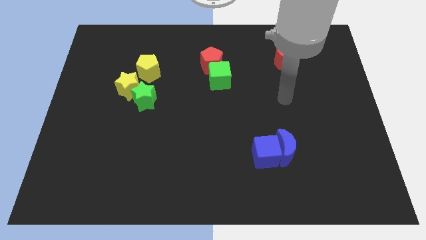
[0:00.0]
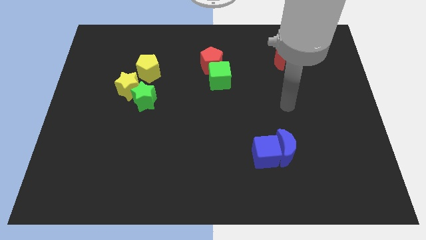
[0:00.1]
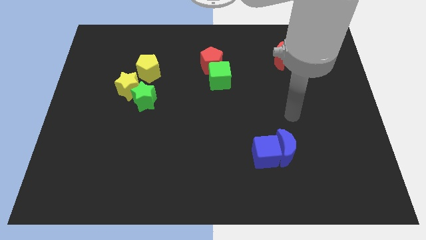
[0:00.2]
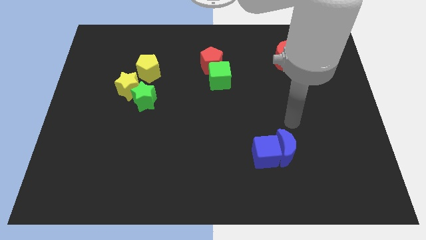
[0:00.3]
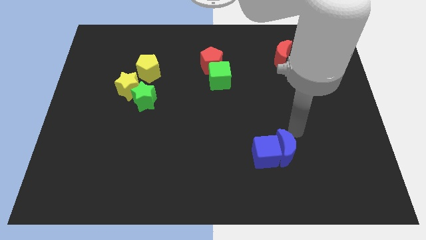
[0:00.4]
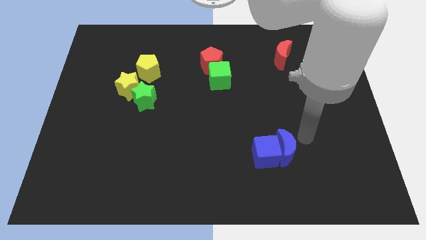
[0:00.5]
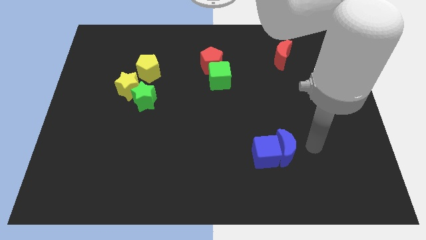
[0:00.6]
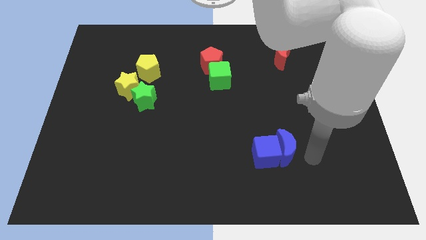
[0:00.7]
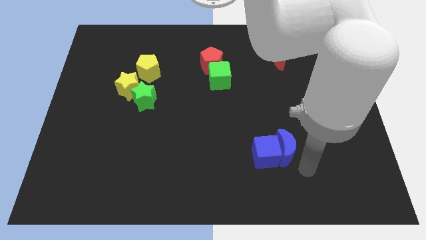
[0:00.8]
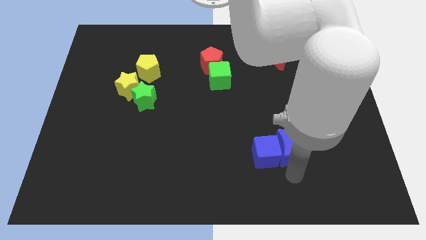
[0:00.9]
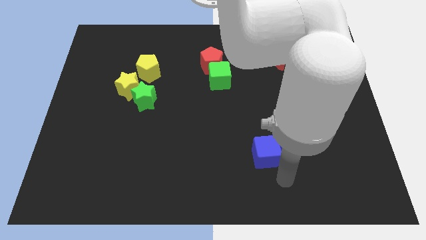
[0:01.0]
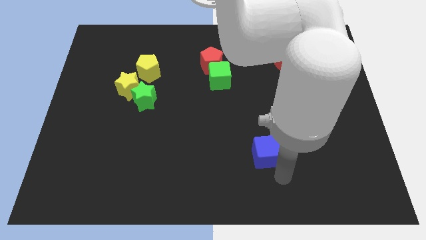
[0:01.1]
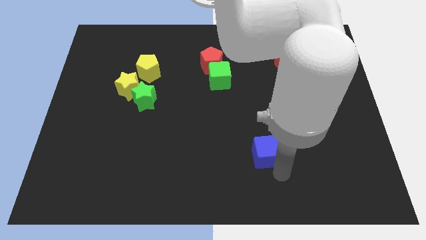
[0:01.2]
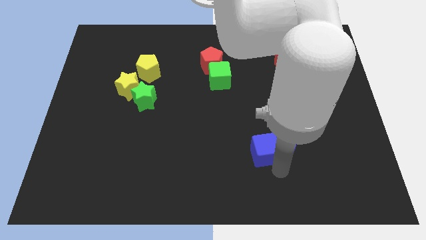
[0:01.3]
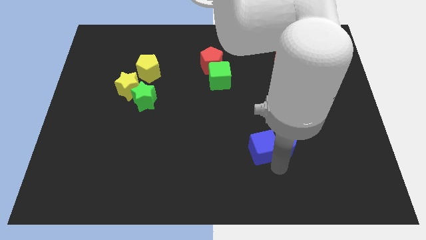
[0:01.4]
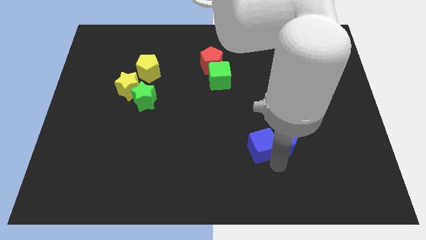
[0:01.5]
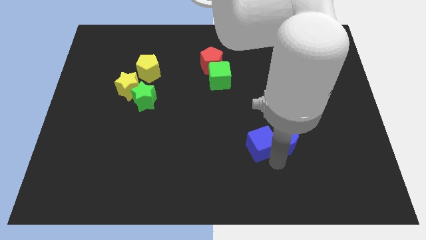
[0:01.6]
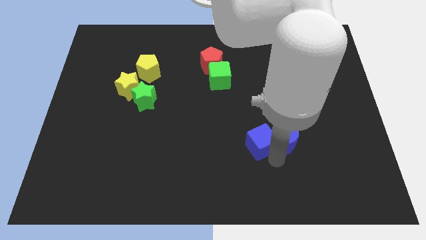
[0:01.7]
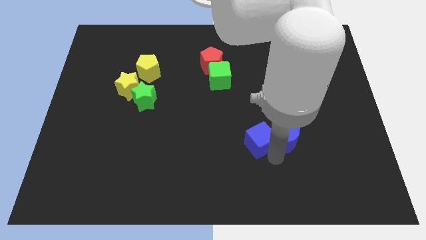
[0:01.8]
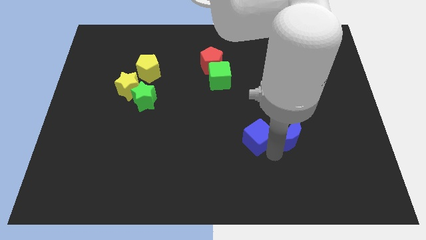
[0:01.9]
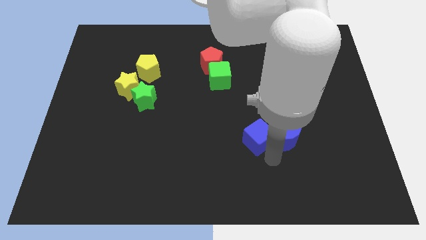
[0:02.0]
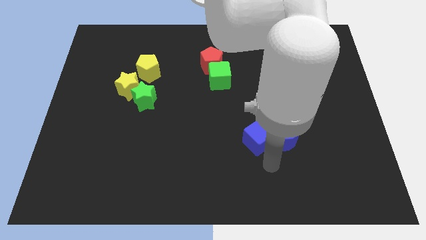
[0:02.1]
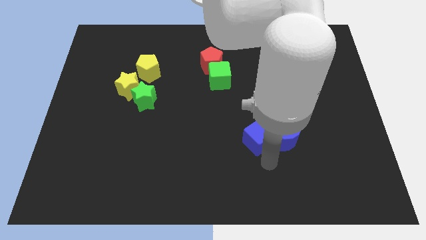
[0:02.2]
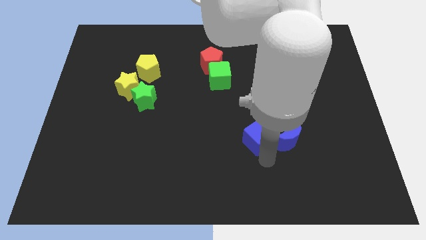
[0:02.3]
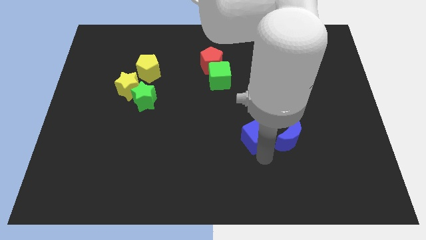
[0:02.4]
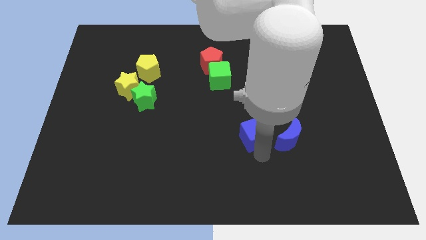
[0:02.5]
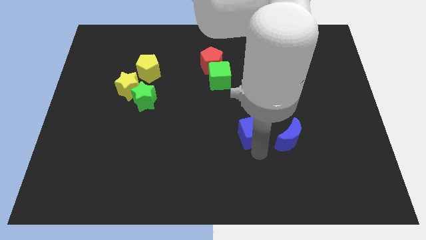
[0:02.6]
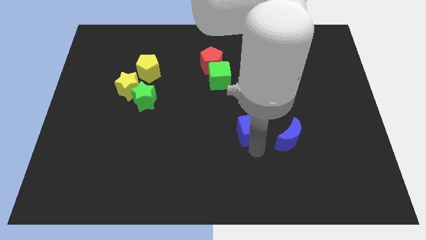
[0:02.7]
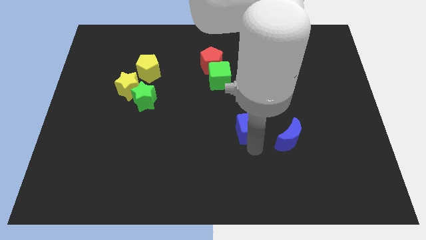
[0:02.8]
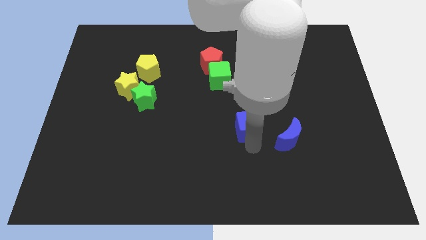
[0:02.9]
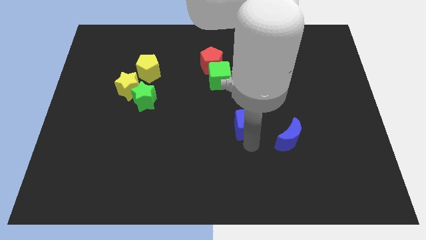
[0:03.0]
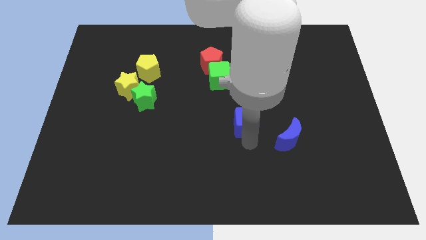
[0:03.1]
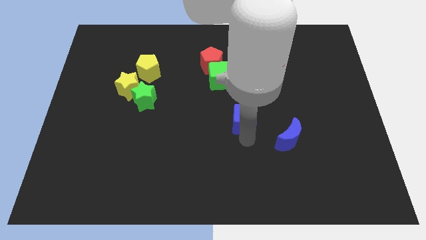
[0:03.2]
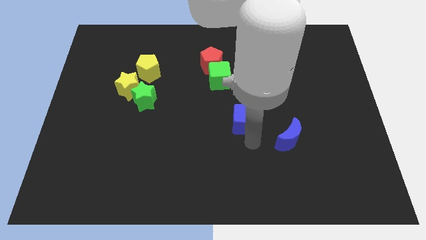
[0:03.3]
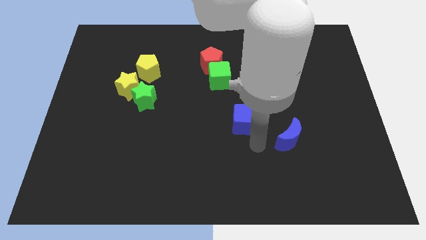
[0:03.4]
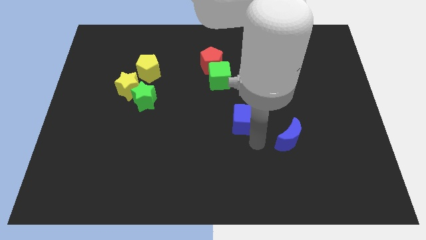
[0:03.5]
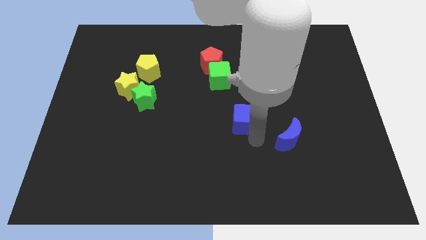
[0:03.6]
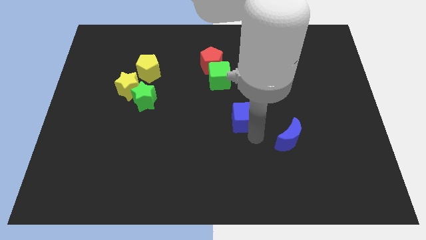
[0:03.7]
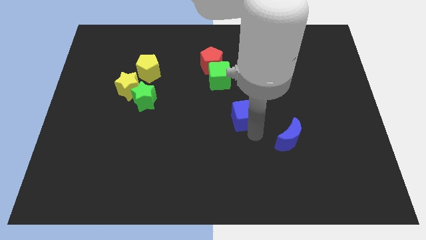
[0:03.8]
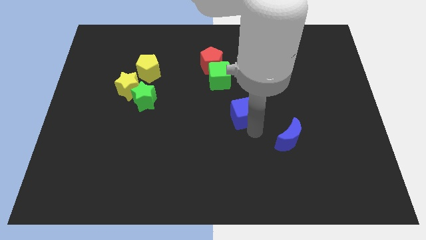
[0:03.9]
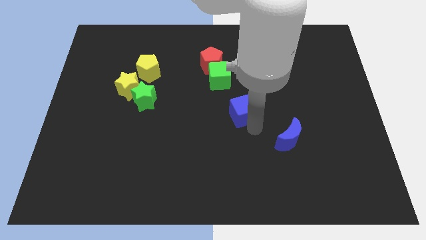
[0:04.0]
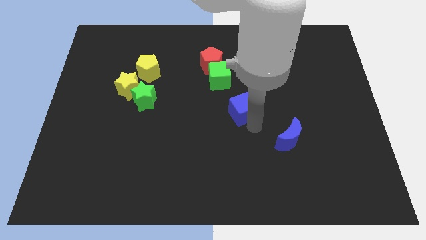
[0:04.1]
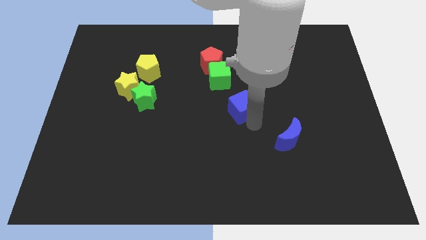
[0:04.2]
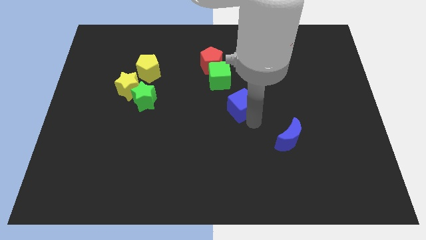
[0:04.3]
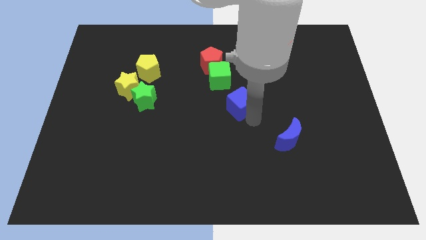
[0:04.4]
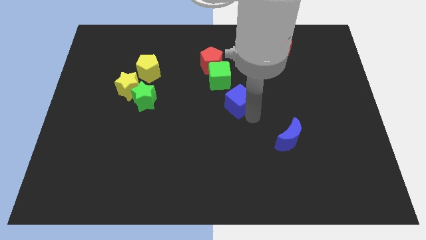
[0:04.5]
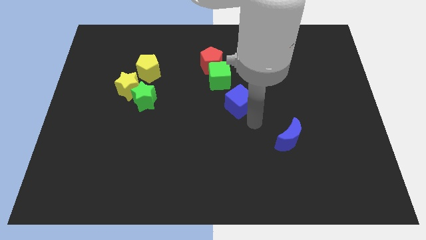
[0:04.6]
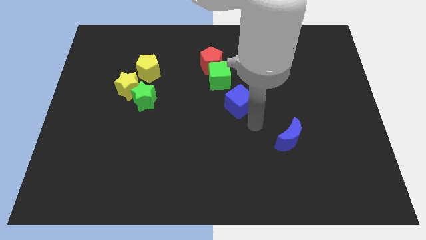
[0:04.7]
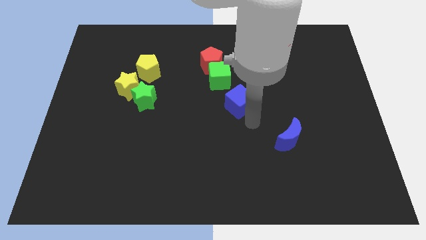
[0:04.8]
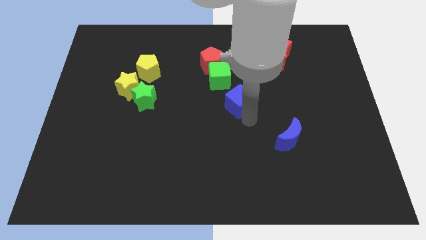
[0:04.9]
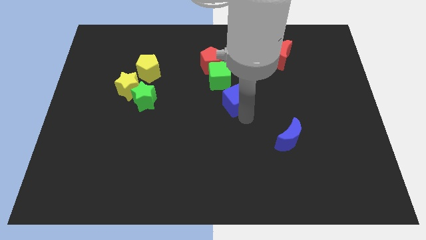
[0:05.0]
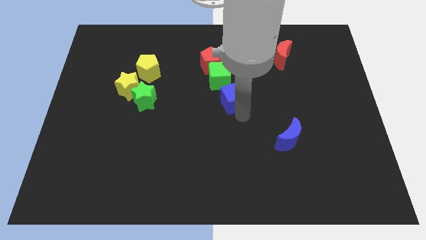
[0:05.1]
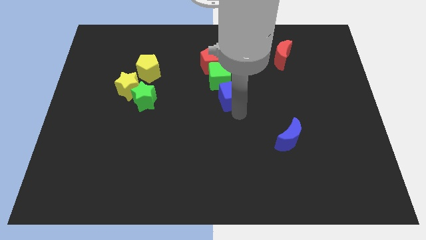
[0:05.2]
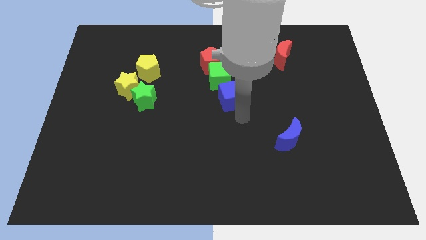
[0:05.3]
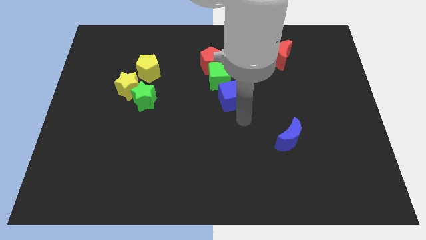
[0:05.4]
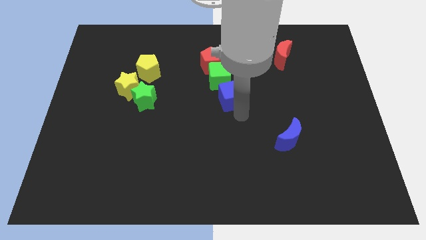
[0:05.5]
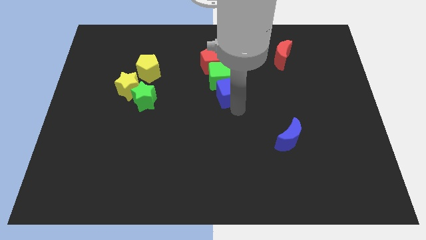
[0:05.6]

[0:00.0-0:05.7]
push the blue cube close to the green cube
